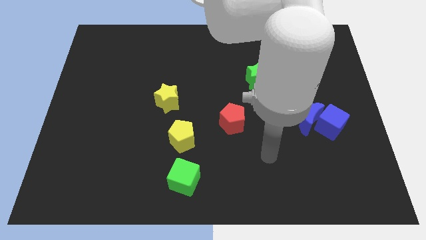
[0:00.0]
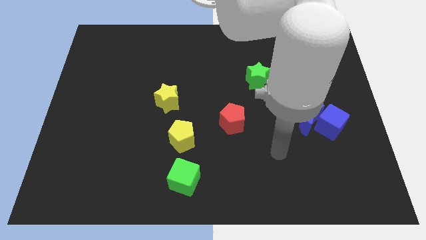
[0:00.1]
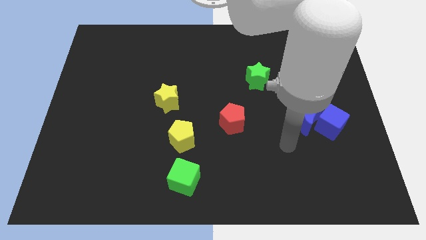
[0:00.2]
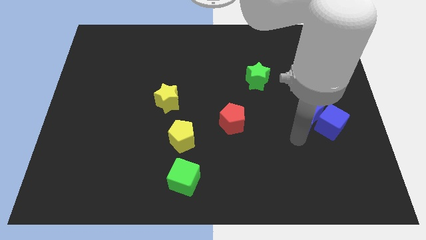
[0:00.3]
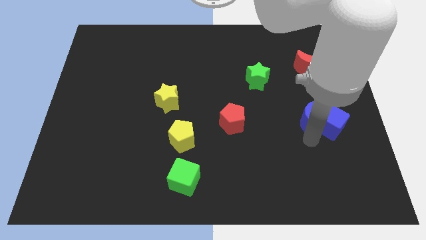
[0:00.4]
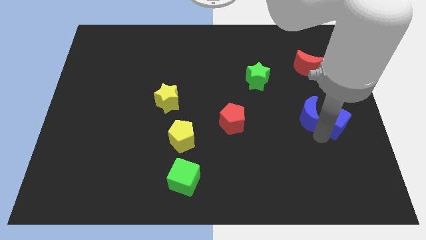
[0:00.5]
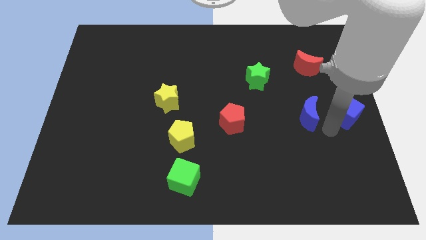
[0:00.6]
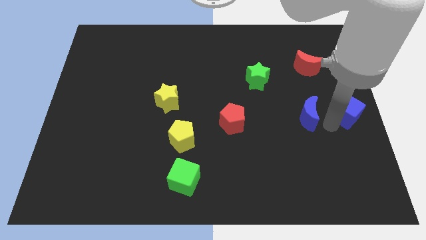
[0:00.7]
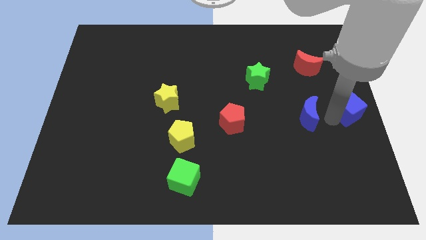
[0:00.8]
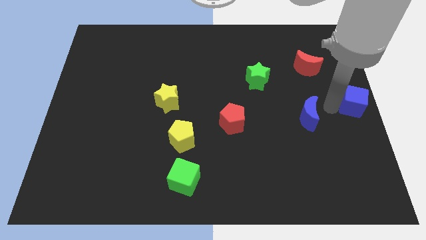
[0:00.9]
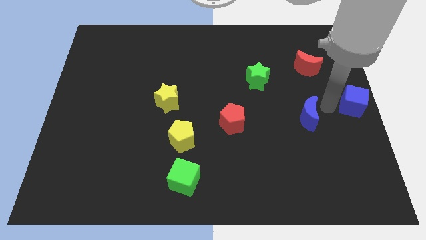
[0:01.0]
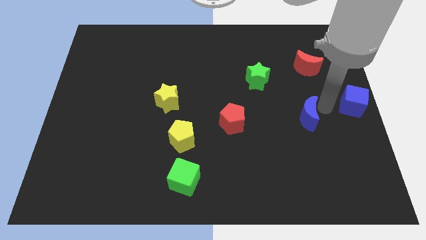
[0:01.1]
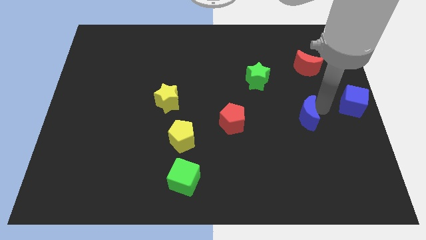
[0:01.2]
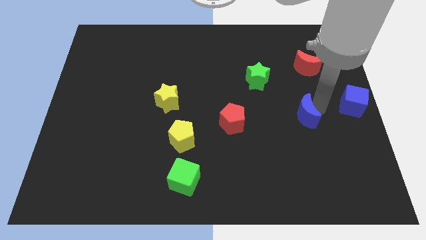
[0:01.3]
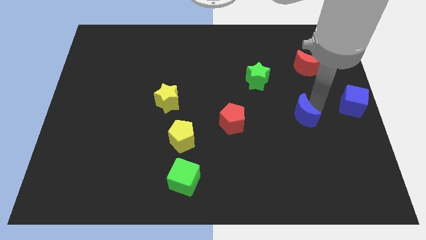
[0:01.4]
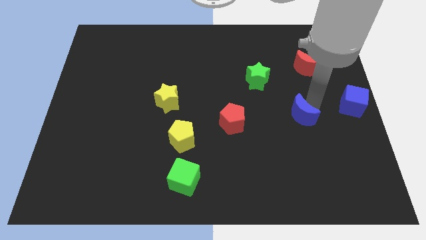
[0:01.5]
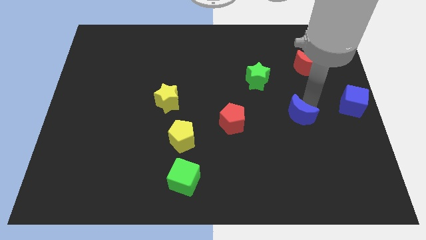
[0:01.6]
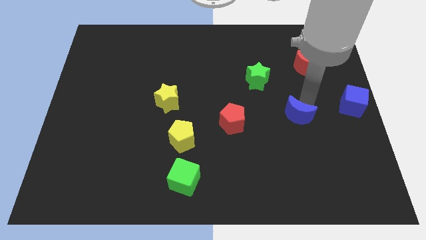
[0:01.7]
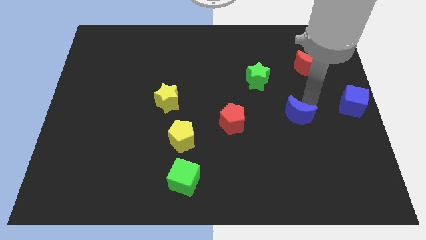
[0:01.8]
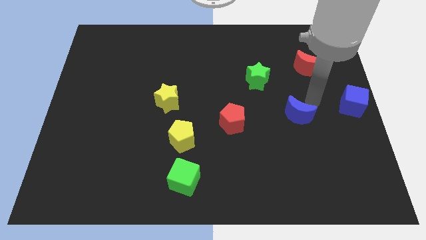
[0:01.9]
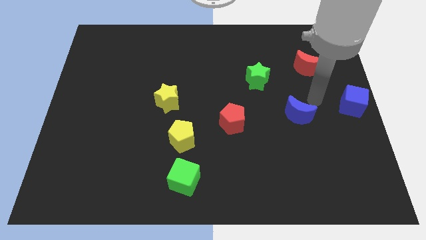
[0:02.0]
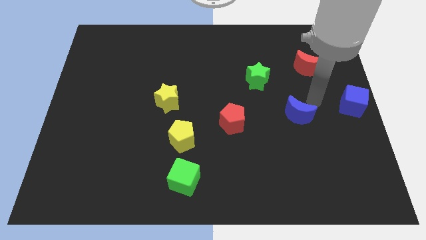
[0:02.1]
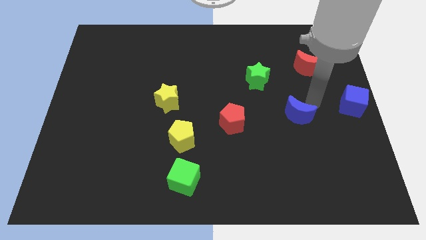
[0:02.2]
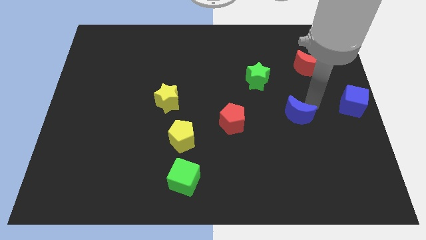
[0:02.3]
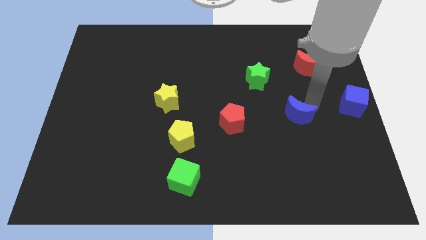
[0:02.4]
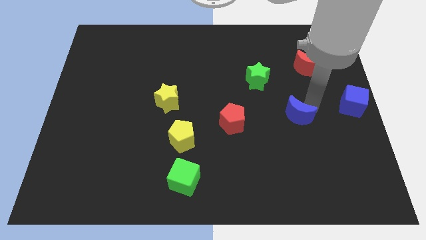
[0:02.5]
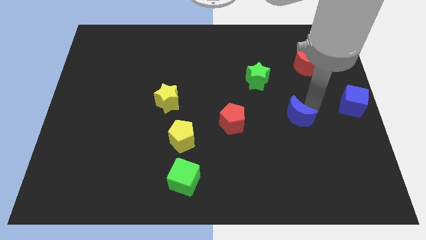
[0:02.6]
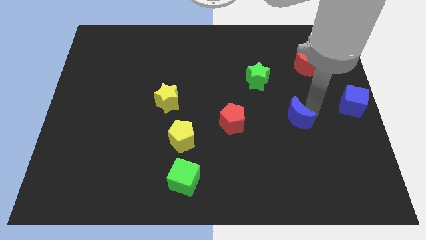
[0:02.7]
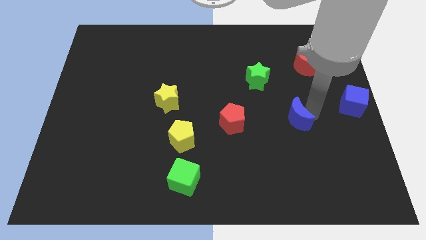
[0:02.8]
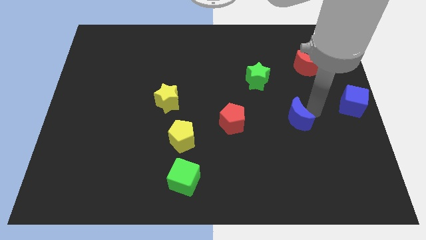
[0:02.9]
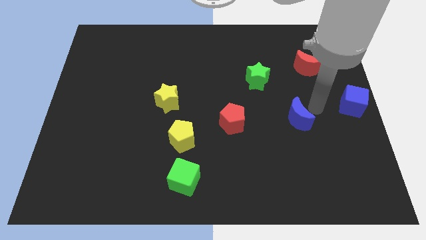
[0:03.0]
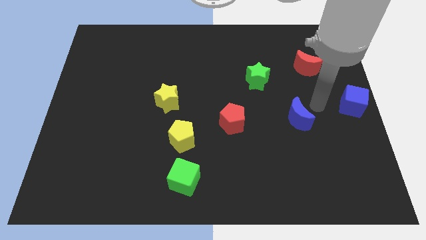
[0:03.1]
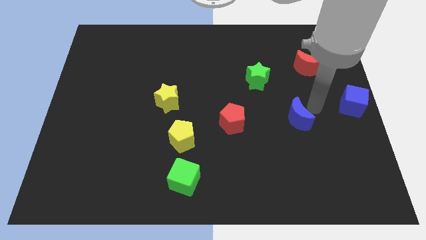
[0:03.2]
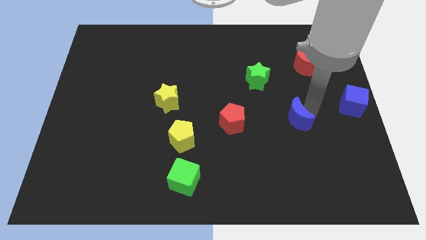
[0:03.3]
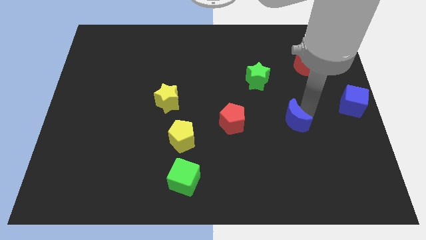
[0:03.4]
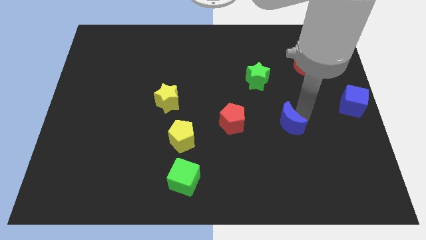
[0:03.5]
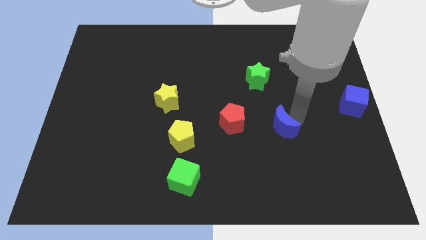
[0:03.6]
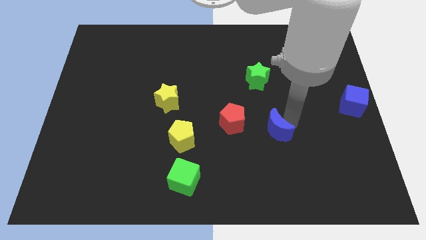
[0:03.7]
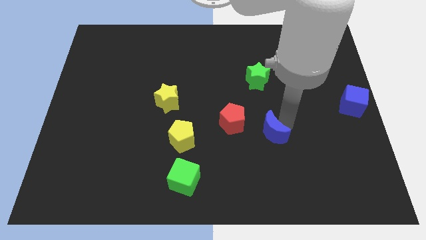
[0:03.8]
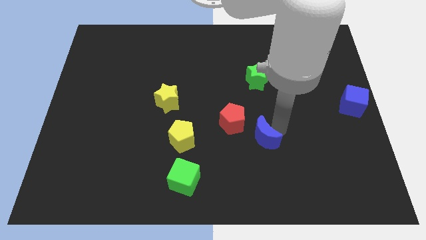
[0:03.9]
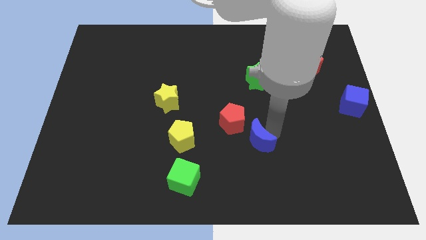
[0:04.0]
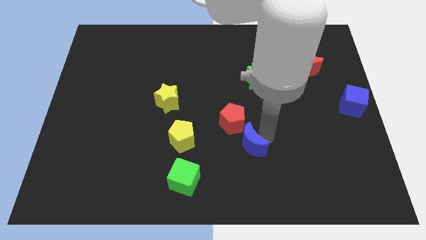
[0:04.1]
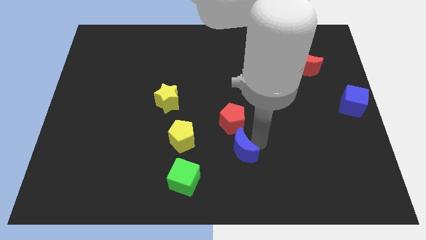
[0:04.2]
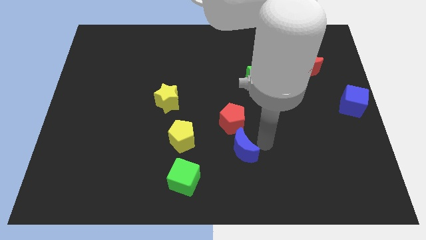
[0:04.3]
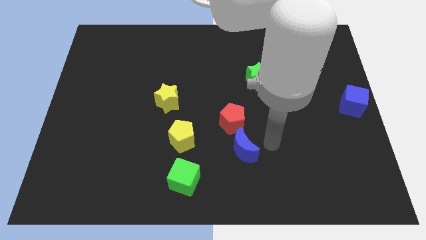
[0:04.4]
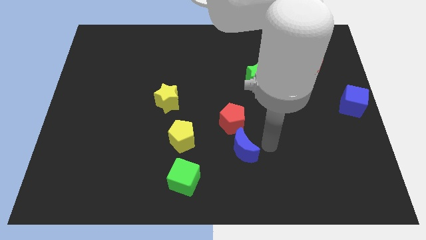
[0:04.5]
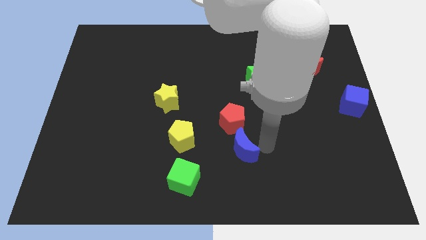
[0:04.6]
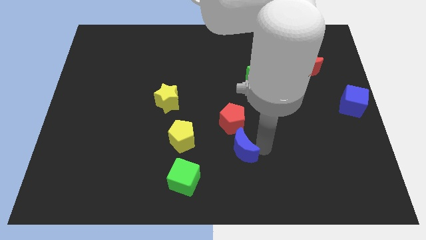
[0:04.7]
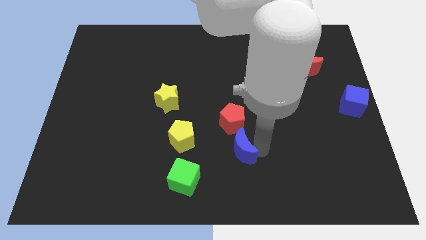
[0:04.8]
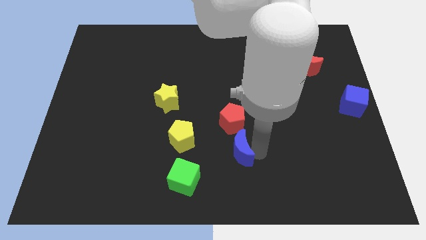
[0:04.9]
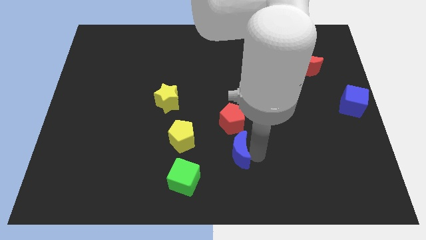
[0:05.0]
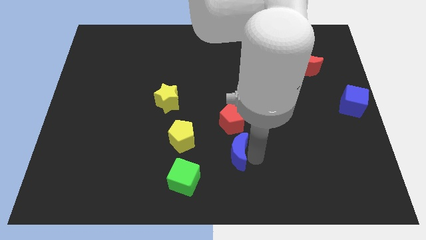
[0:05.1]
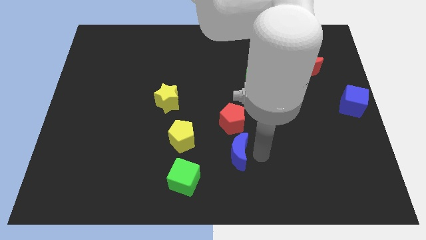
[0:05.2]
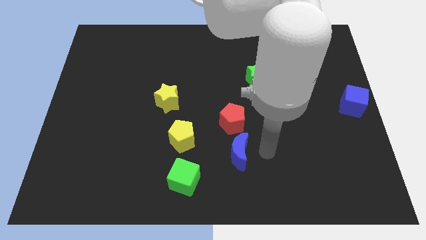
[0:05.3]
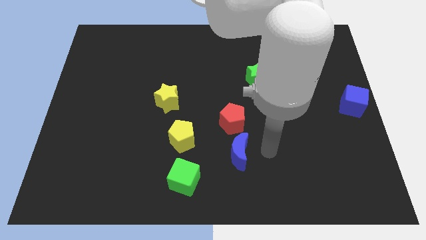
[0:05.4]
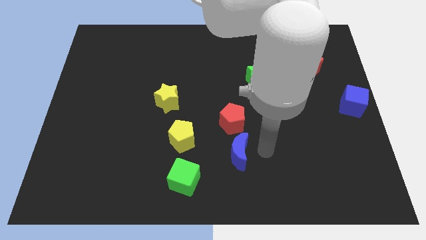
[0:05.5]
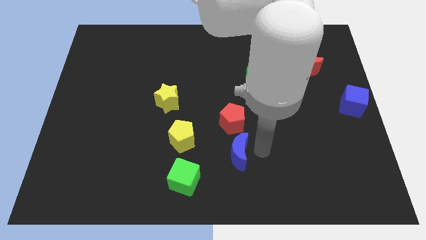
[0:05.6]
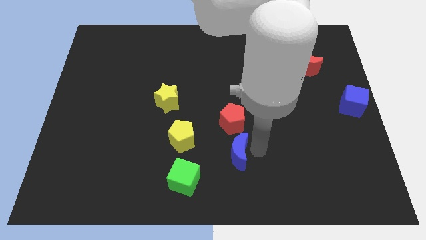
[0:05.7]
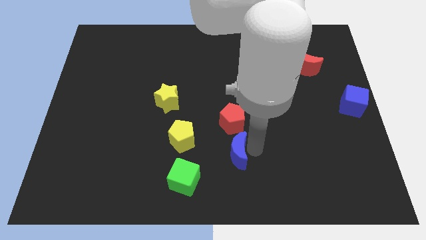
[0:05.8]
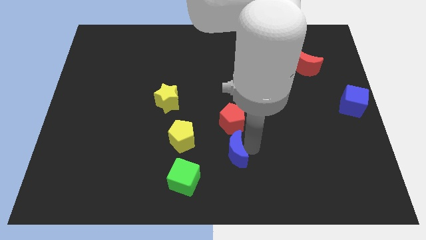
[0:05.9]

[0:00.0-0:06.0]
slide the blue moon diagonally up and to the right of the green cube

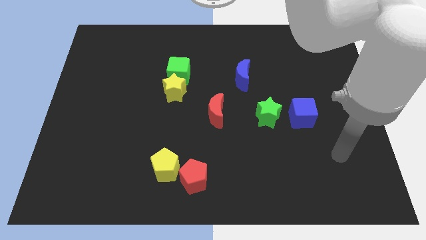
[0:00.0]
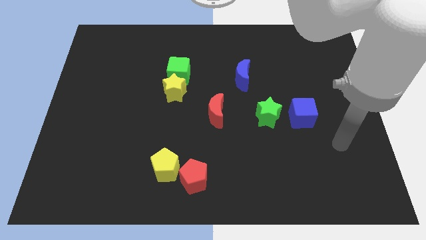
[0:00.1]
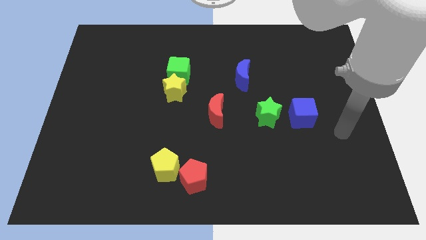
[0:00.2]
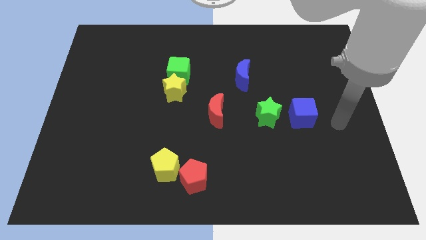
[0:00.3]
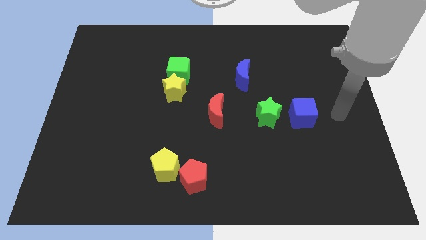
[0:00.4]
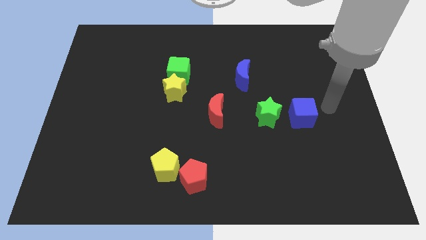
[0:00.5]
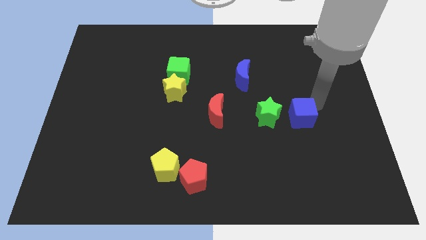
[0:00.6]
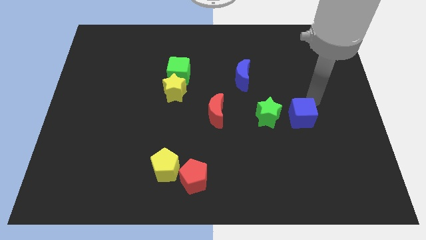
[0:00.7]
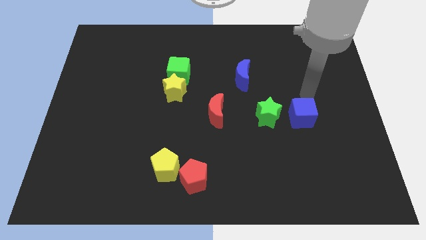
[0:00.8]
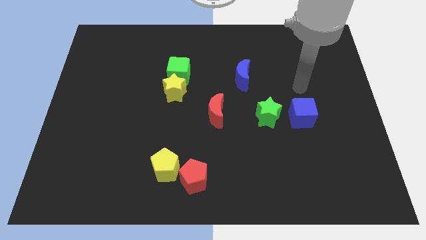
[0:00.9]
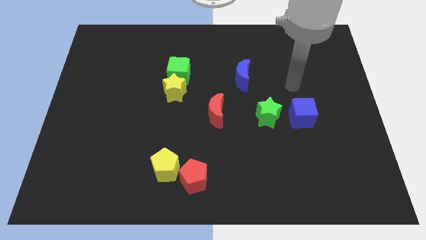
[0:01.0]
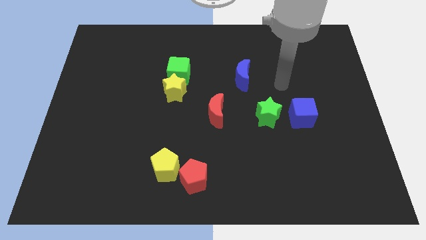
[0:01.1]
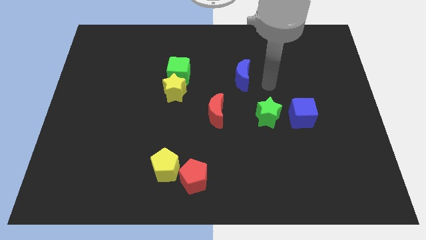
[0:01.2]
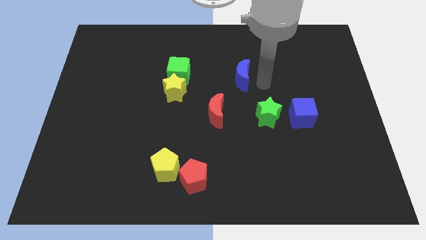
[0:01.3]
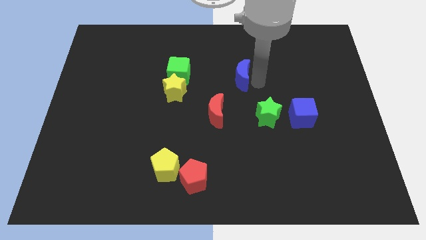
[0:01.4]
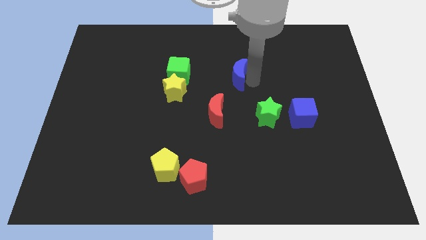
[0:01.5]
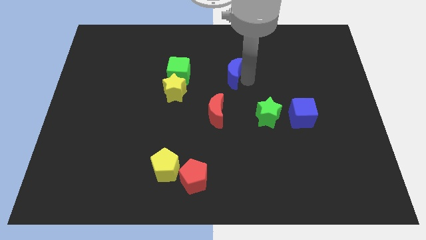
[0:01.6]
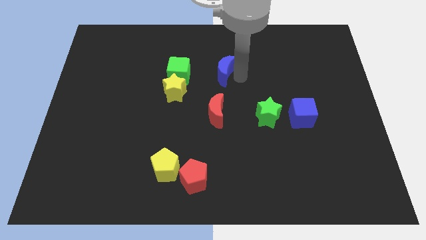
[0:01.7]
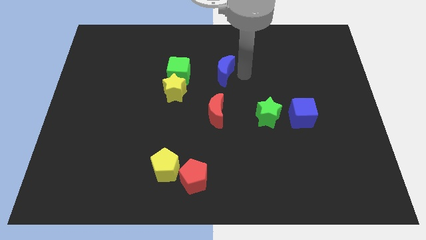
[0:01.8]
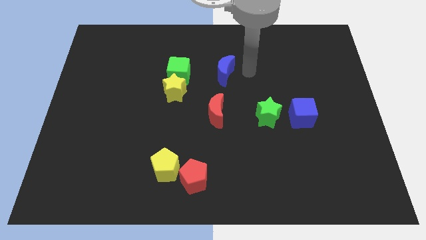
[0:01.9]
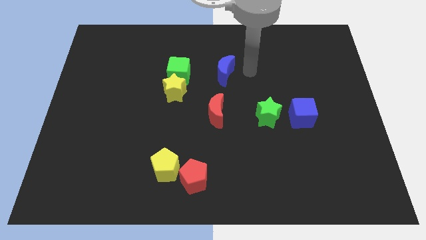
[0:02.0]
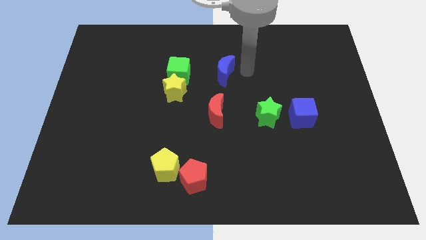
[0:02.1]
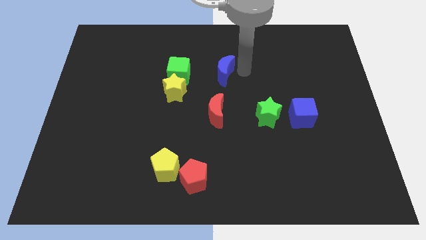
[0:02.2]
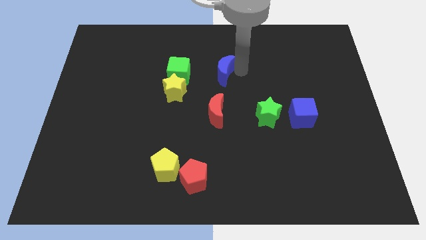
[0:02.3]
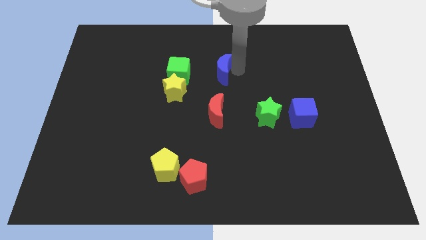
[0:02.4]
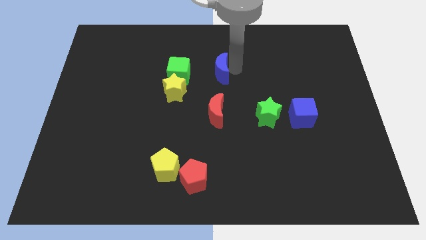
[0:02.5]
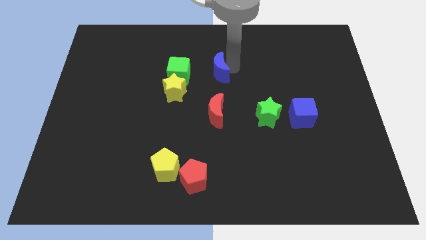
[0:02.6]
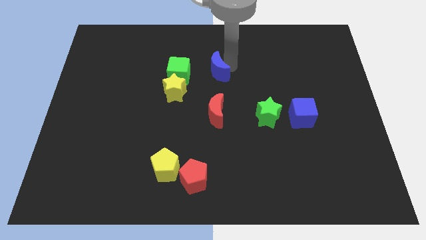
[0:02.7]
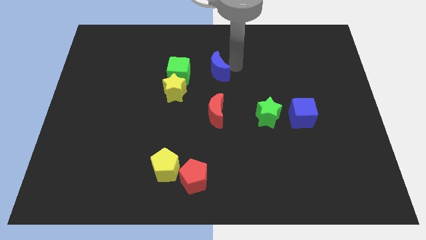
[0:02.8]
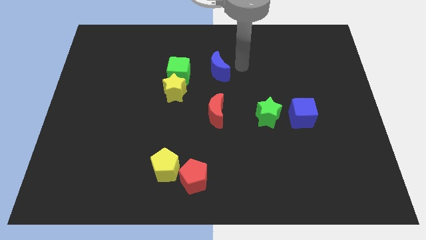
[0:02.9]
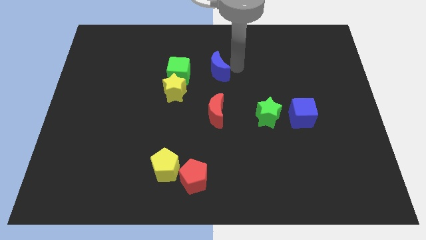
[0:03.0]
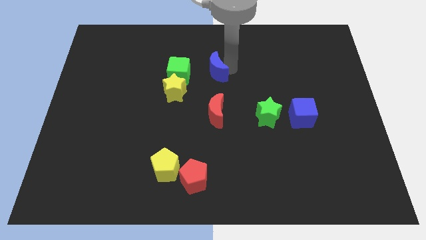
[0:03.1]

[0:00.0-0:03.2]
push the blue moon to the top right side of the yellow star
